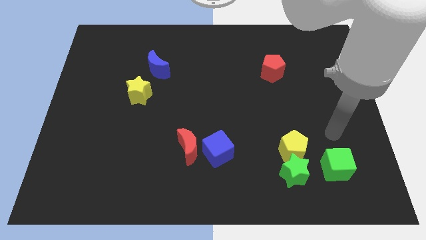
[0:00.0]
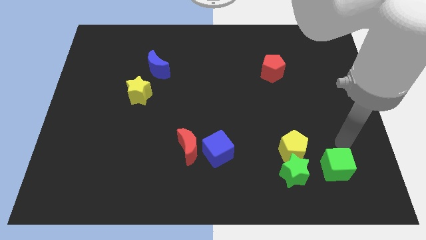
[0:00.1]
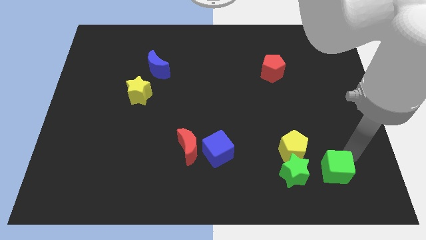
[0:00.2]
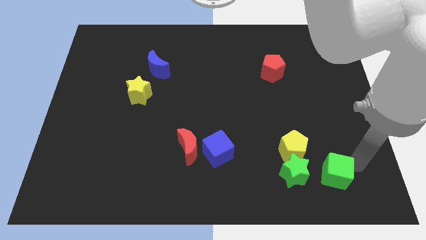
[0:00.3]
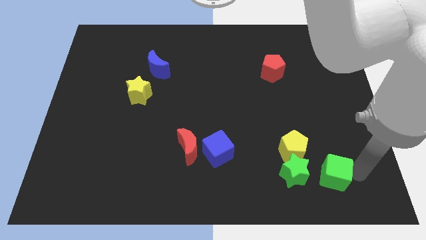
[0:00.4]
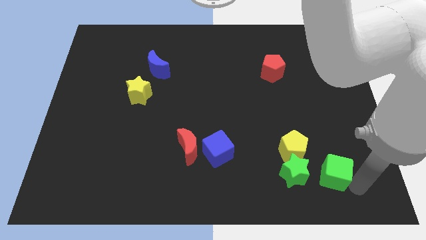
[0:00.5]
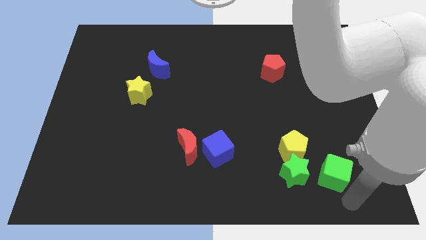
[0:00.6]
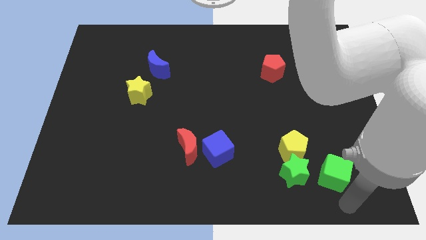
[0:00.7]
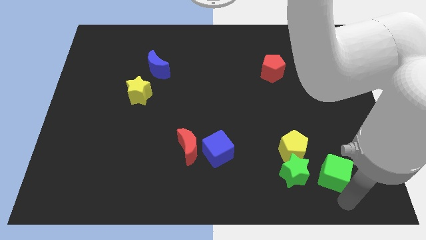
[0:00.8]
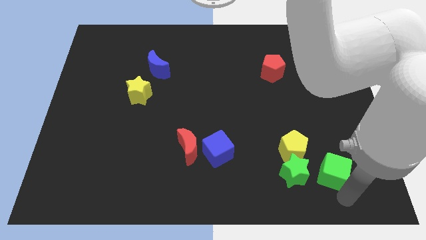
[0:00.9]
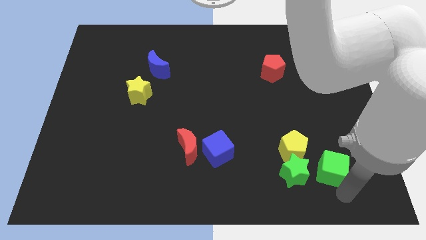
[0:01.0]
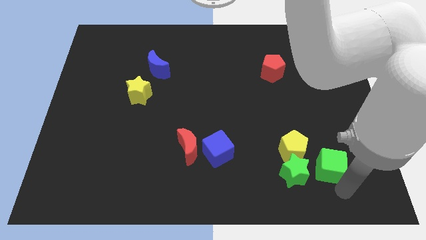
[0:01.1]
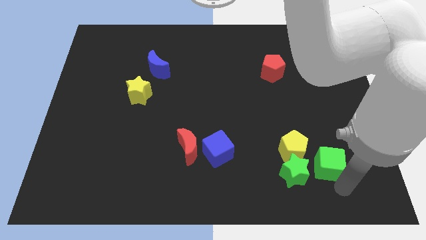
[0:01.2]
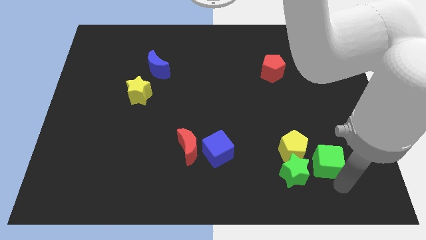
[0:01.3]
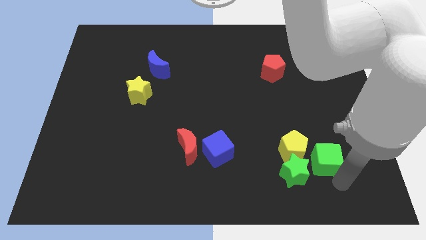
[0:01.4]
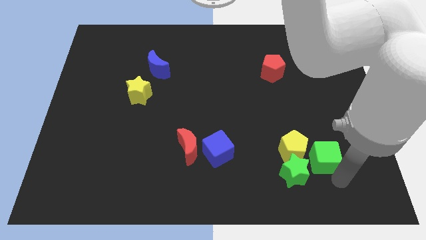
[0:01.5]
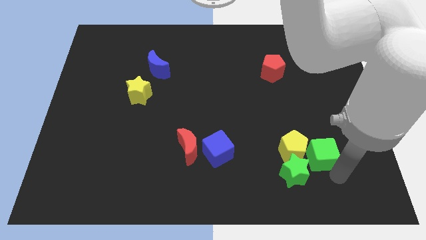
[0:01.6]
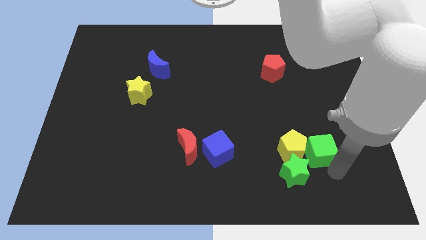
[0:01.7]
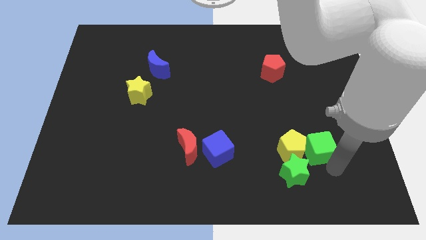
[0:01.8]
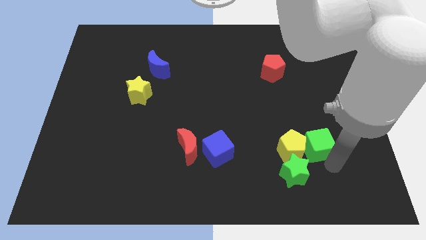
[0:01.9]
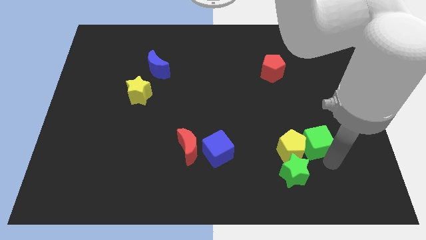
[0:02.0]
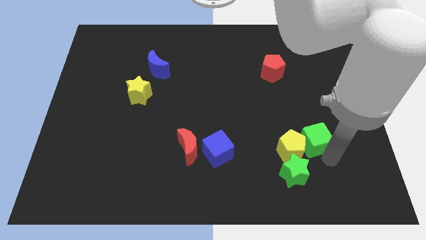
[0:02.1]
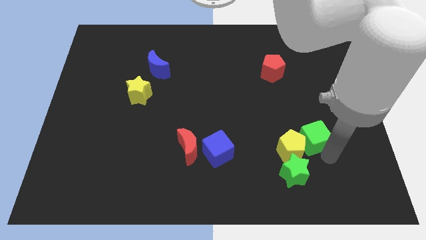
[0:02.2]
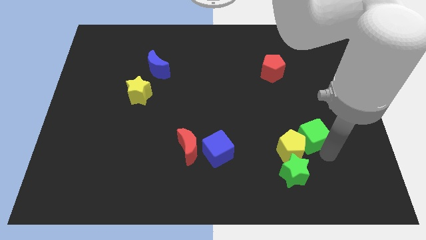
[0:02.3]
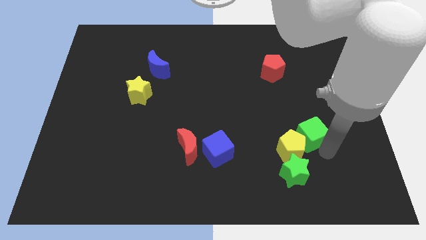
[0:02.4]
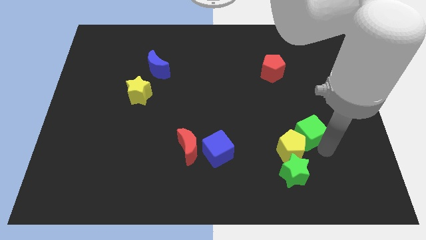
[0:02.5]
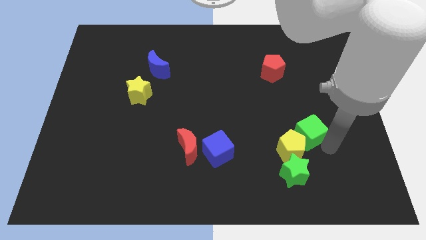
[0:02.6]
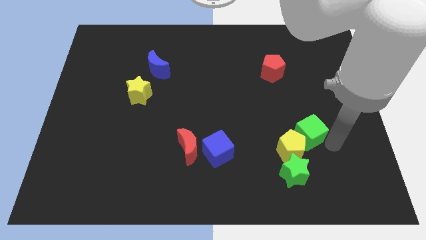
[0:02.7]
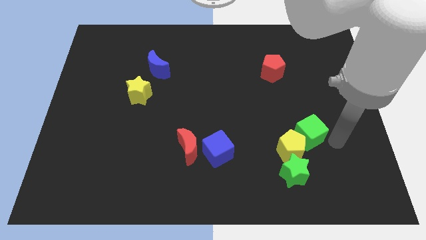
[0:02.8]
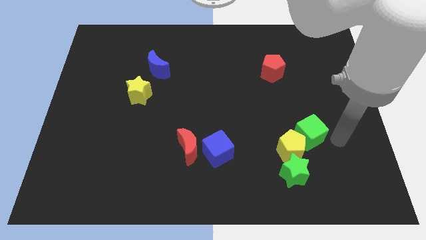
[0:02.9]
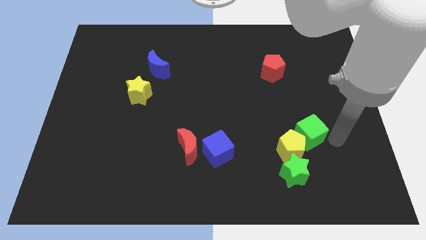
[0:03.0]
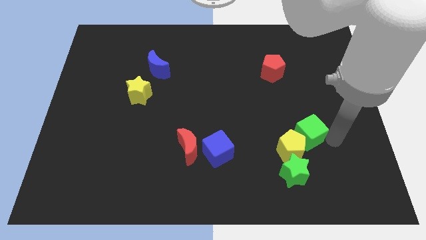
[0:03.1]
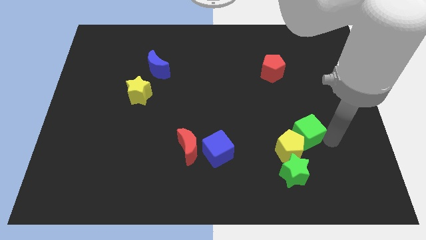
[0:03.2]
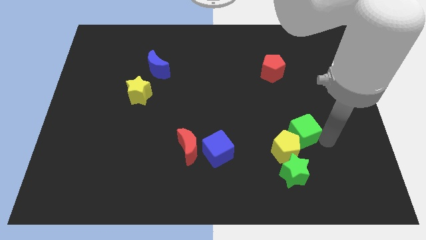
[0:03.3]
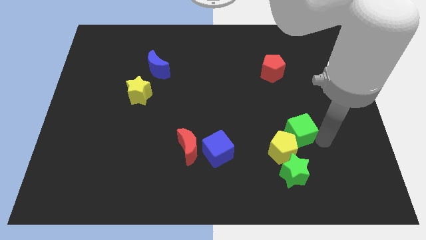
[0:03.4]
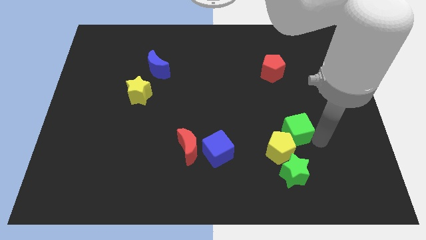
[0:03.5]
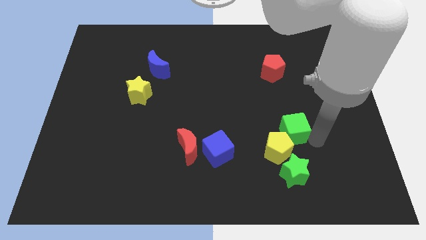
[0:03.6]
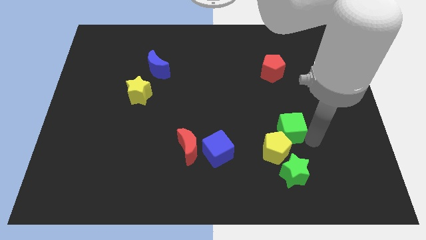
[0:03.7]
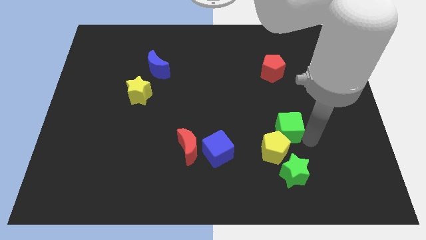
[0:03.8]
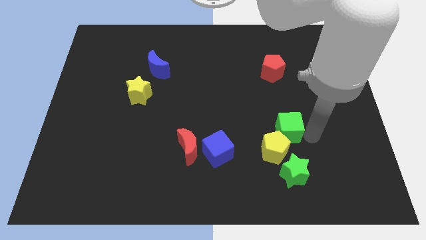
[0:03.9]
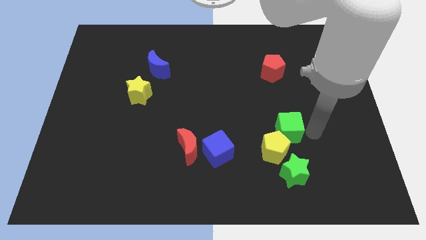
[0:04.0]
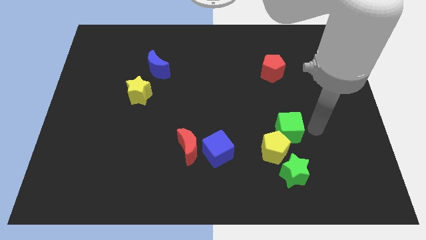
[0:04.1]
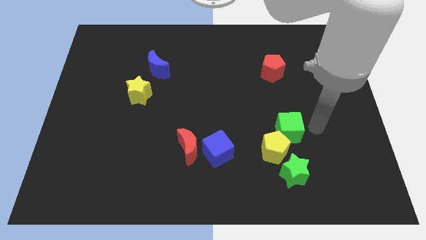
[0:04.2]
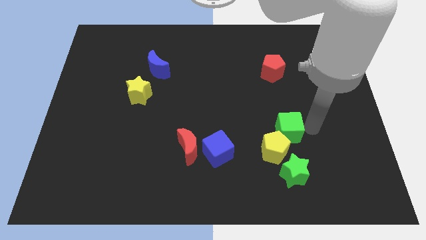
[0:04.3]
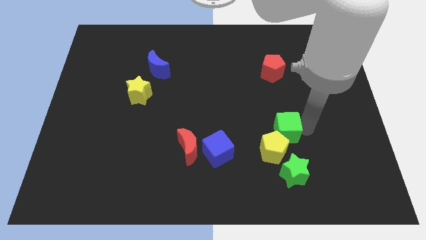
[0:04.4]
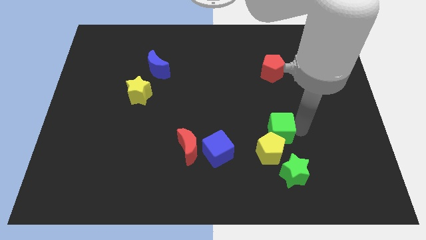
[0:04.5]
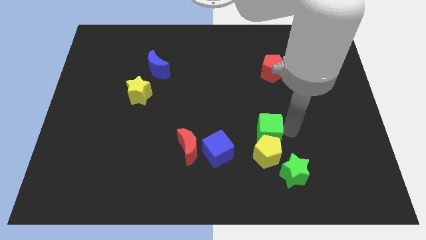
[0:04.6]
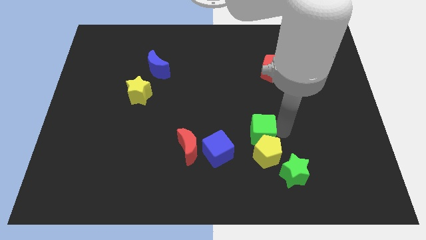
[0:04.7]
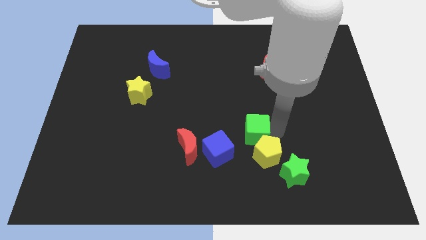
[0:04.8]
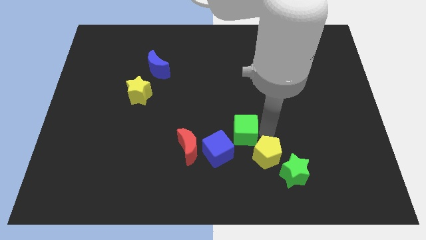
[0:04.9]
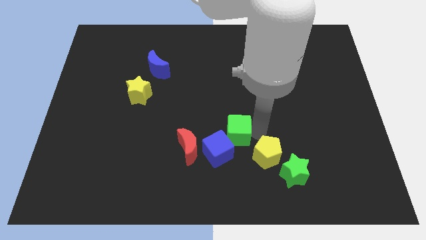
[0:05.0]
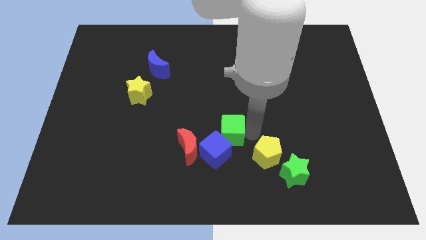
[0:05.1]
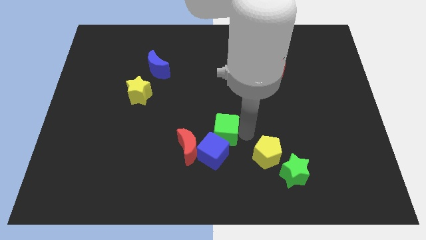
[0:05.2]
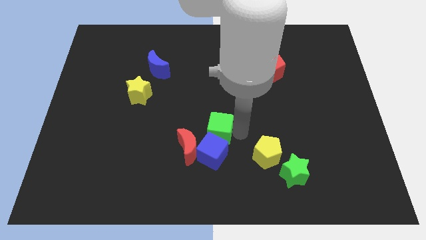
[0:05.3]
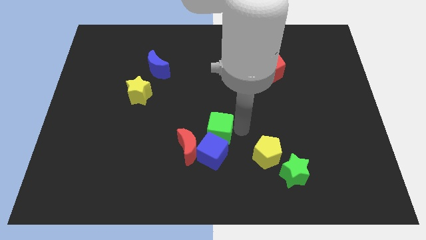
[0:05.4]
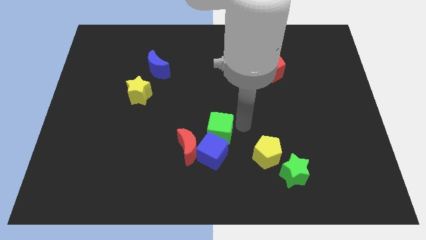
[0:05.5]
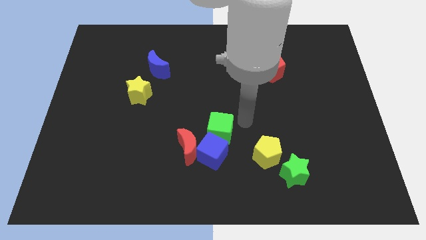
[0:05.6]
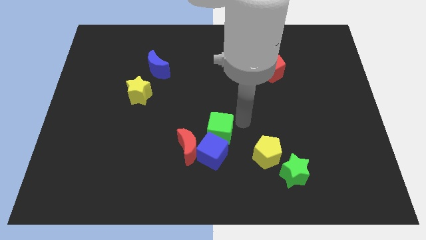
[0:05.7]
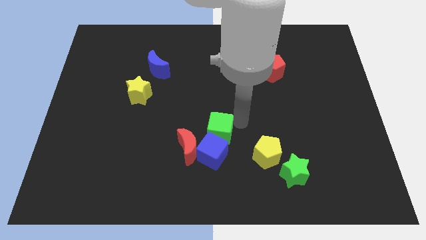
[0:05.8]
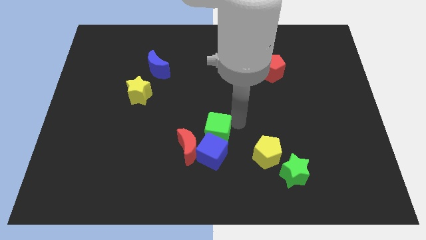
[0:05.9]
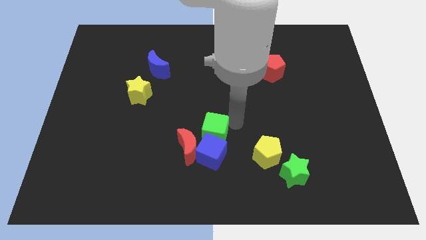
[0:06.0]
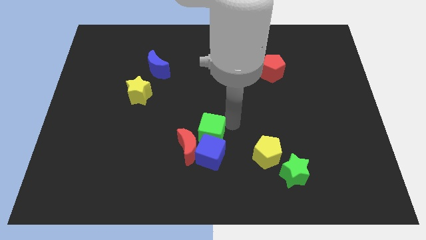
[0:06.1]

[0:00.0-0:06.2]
put the green cube towards the red moon

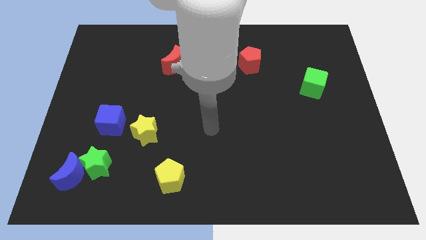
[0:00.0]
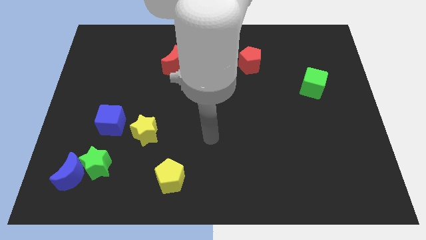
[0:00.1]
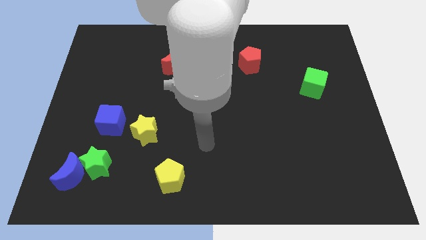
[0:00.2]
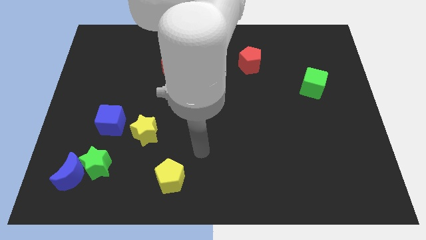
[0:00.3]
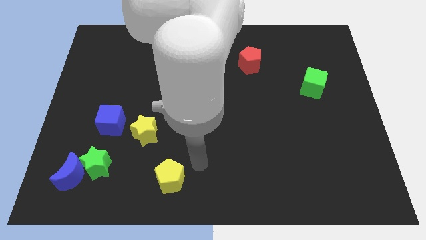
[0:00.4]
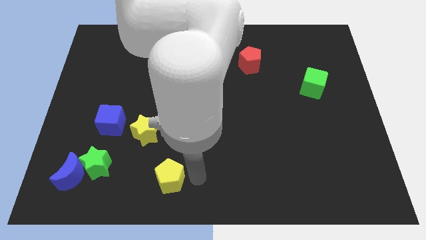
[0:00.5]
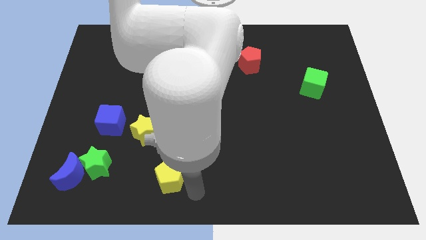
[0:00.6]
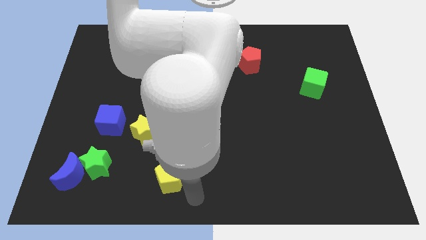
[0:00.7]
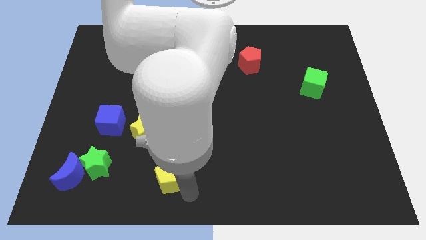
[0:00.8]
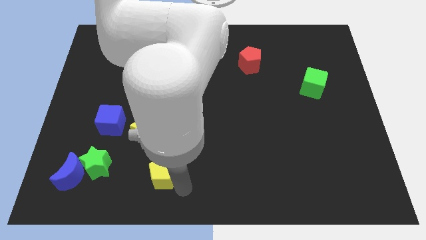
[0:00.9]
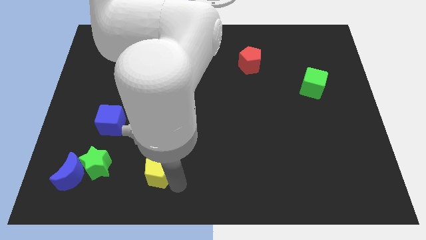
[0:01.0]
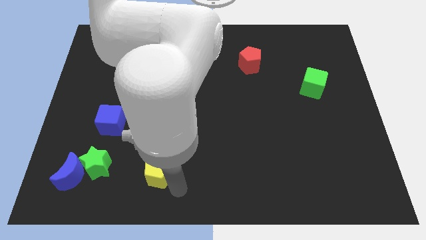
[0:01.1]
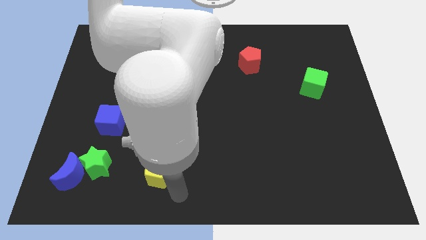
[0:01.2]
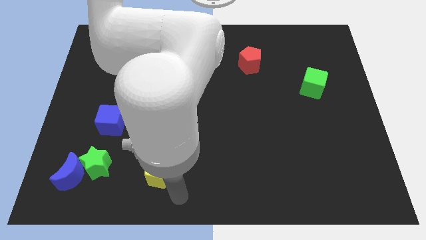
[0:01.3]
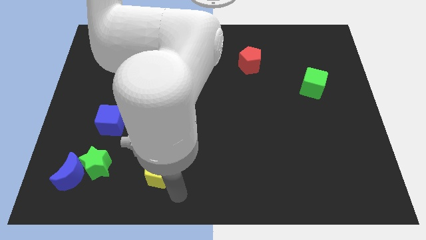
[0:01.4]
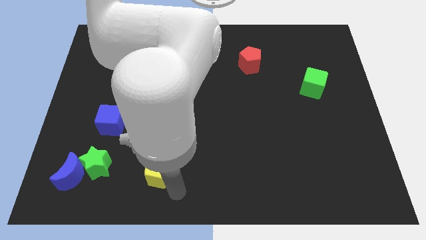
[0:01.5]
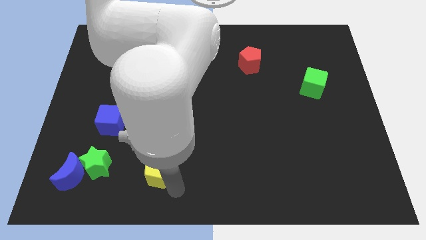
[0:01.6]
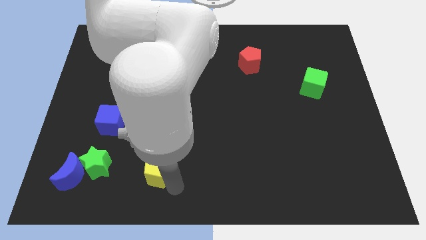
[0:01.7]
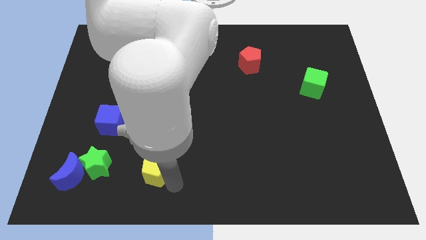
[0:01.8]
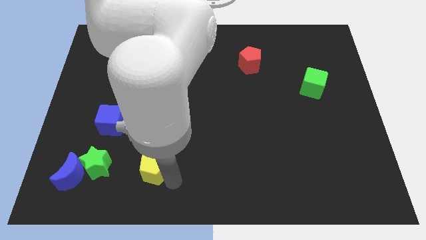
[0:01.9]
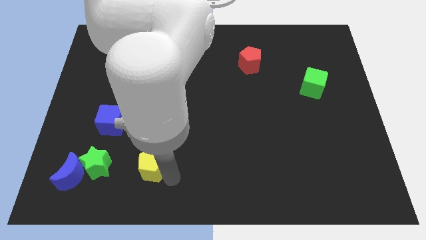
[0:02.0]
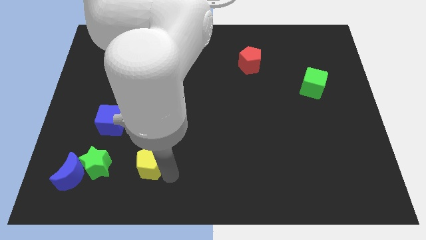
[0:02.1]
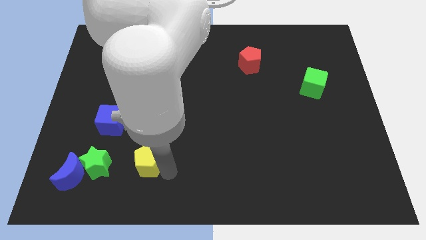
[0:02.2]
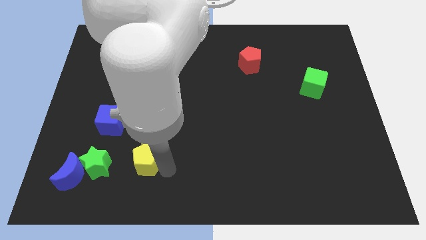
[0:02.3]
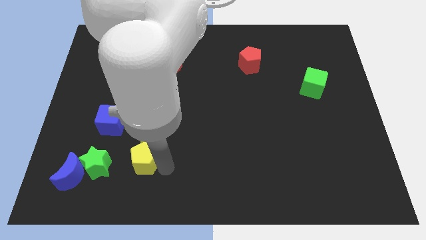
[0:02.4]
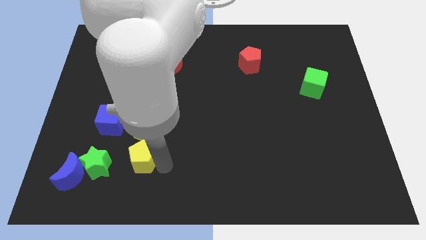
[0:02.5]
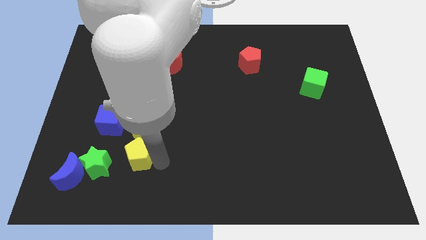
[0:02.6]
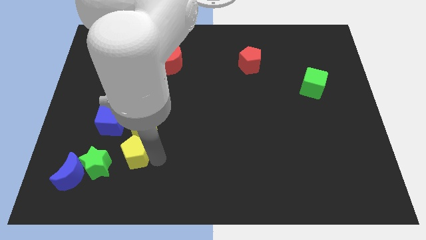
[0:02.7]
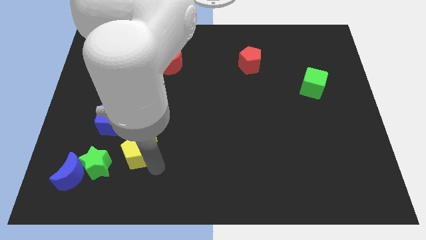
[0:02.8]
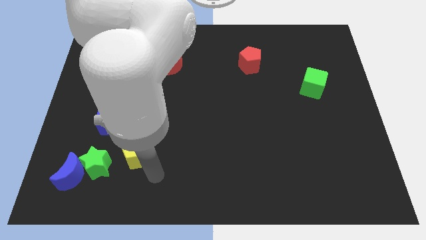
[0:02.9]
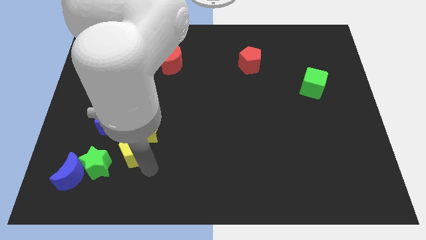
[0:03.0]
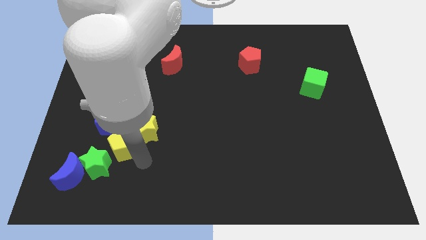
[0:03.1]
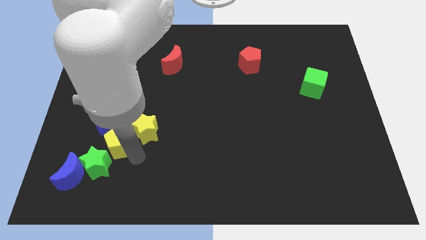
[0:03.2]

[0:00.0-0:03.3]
move the yellow pentagon to the blue cube
